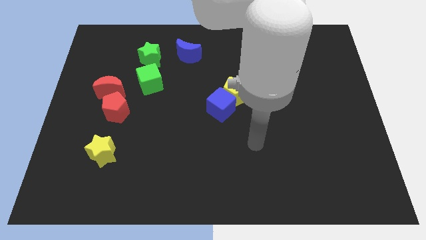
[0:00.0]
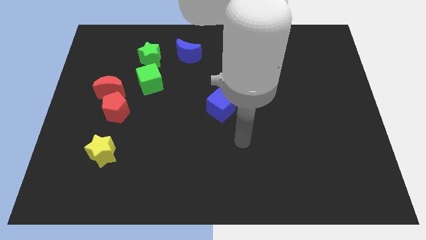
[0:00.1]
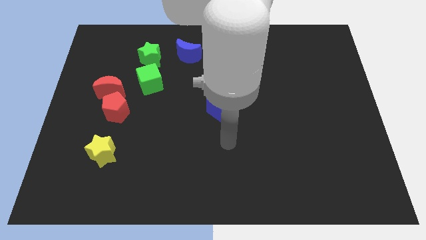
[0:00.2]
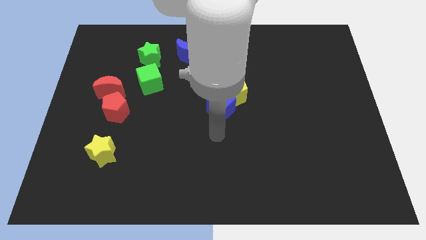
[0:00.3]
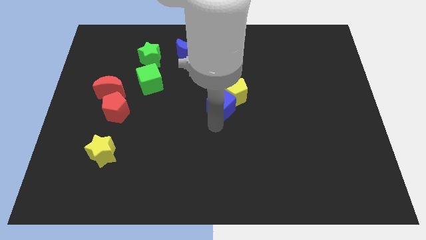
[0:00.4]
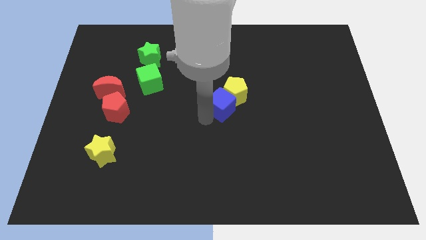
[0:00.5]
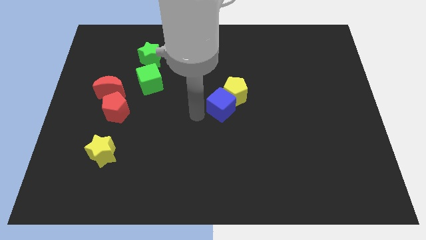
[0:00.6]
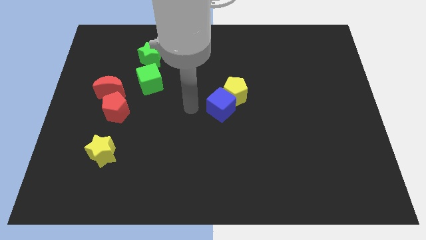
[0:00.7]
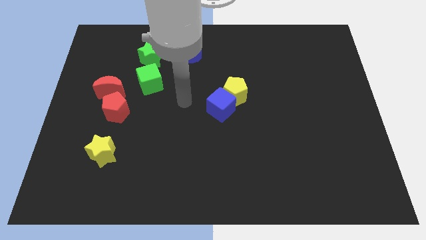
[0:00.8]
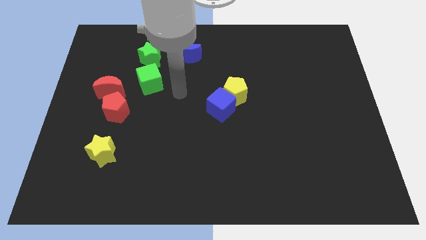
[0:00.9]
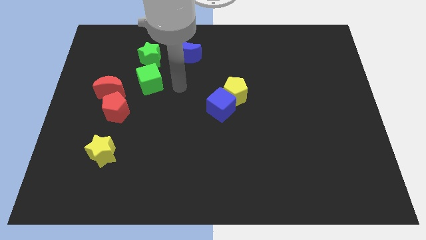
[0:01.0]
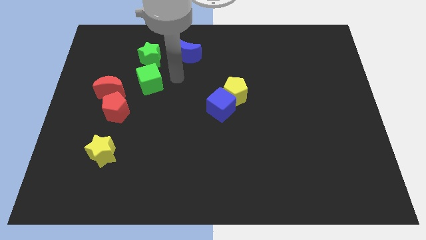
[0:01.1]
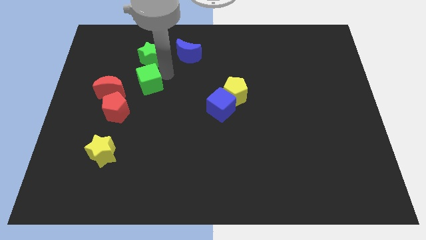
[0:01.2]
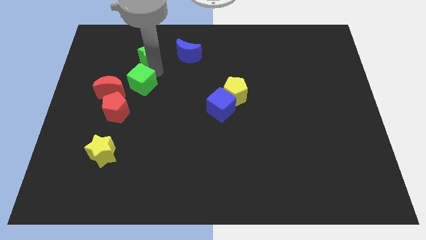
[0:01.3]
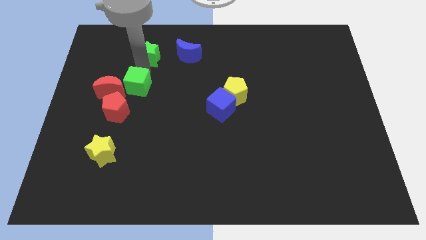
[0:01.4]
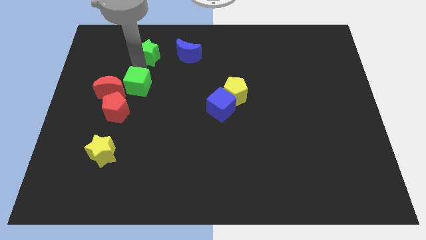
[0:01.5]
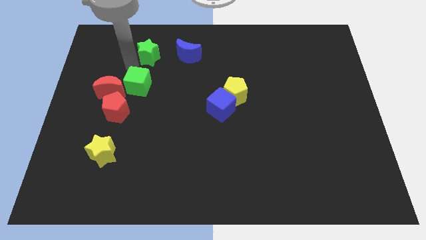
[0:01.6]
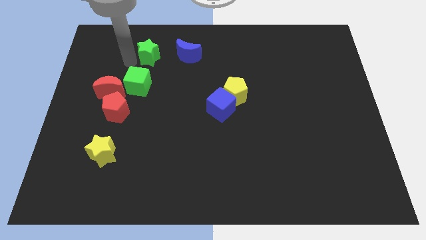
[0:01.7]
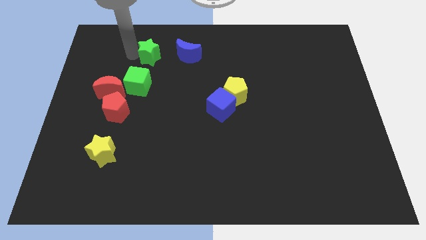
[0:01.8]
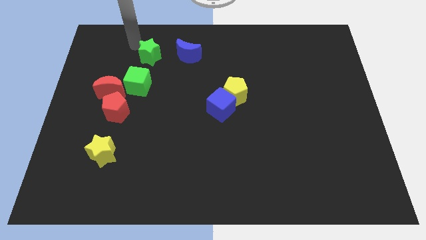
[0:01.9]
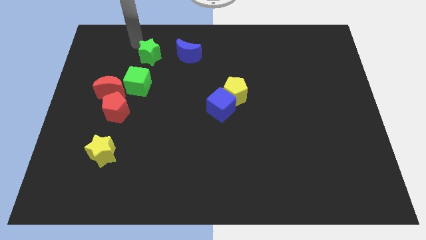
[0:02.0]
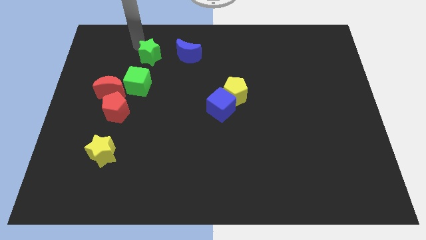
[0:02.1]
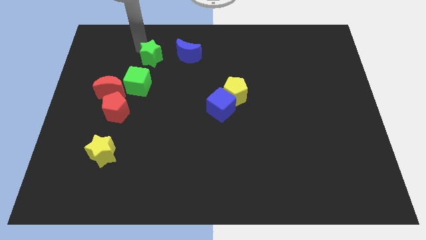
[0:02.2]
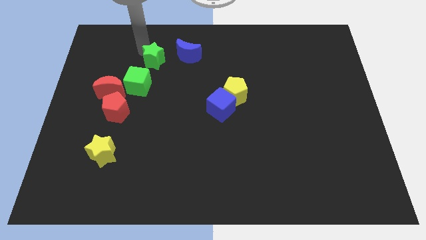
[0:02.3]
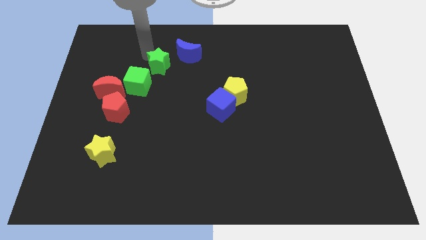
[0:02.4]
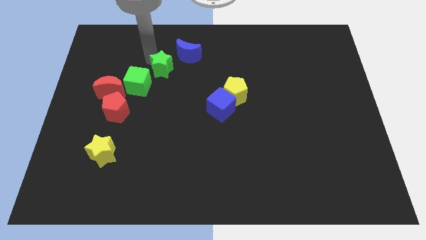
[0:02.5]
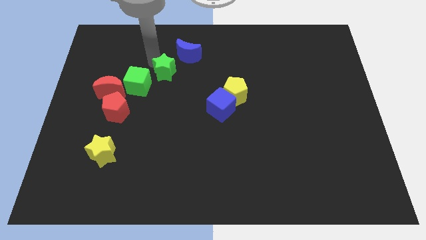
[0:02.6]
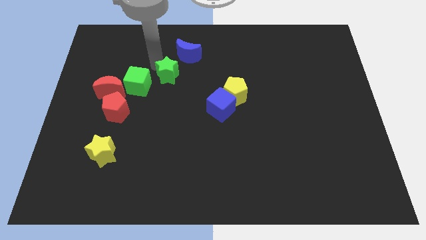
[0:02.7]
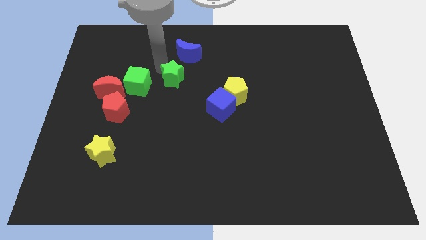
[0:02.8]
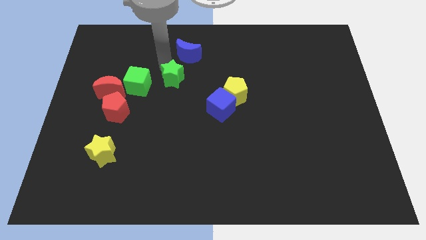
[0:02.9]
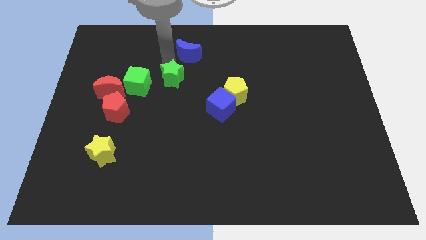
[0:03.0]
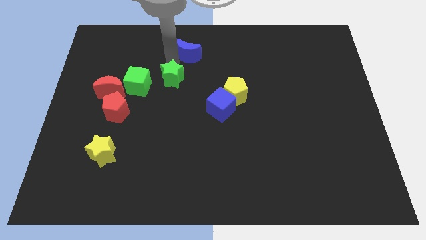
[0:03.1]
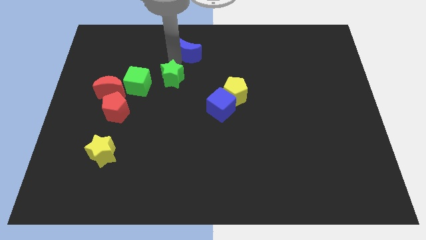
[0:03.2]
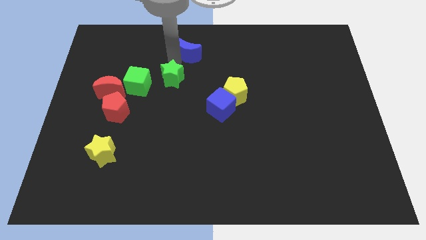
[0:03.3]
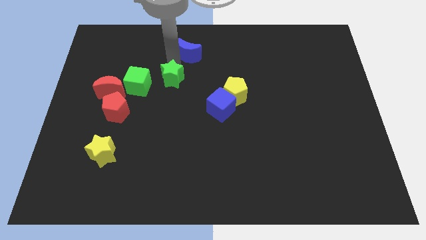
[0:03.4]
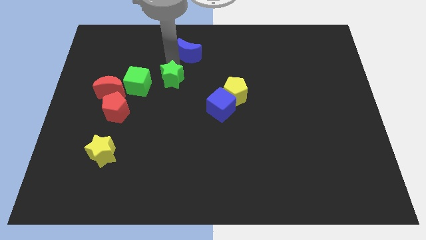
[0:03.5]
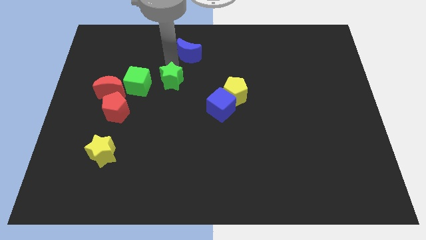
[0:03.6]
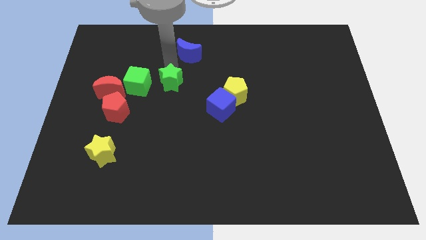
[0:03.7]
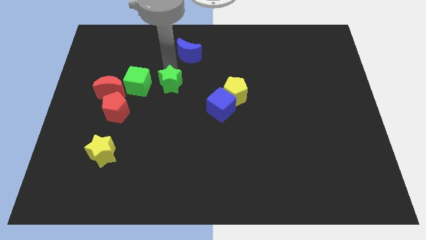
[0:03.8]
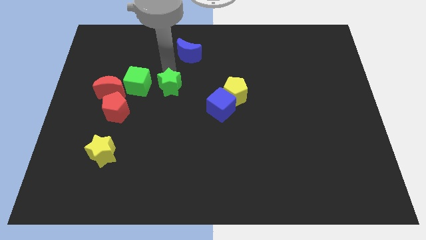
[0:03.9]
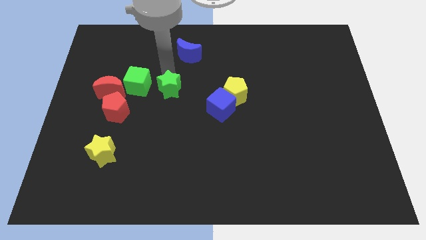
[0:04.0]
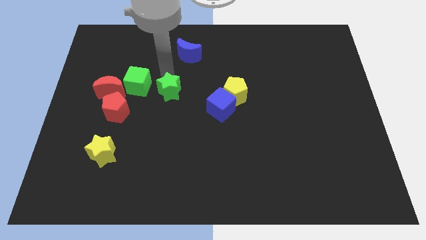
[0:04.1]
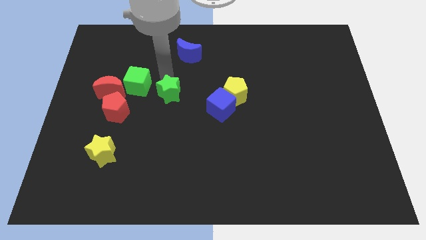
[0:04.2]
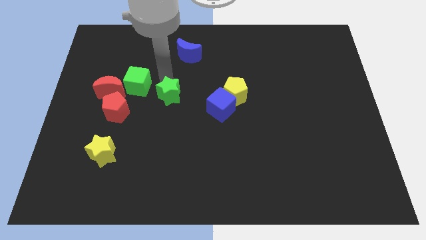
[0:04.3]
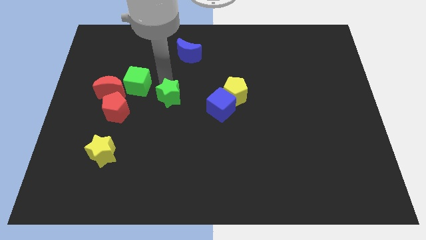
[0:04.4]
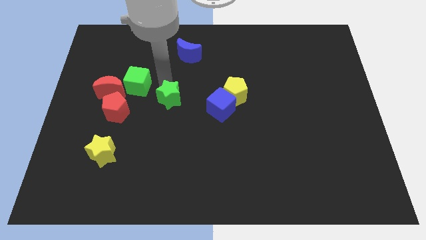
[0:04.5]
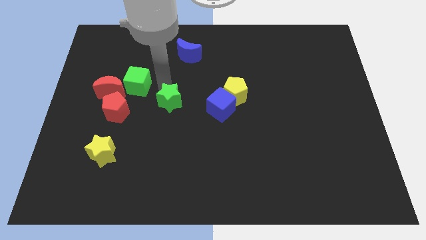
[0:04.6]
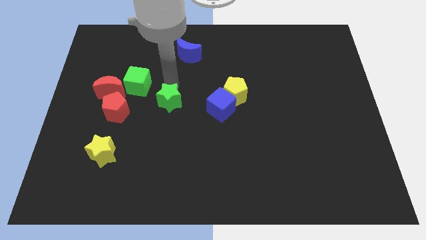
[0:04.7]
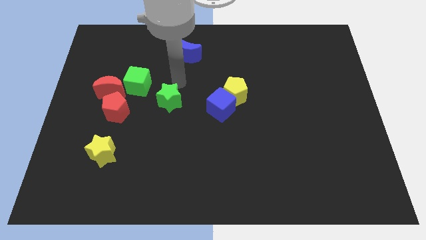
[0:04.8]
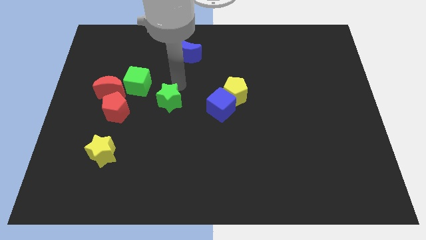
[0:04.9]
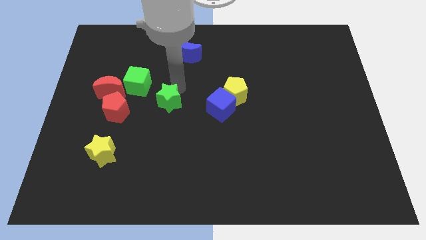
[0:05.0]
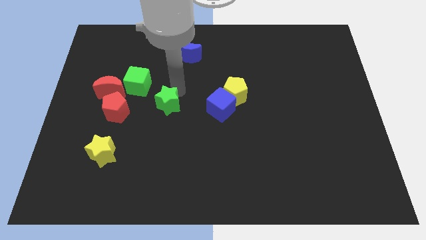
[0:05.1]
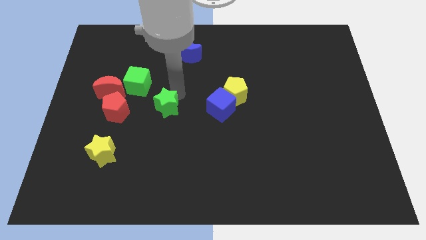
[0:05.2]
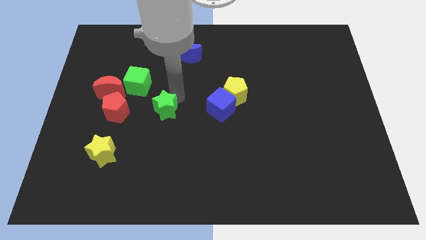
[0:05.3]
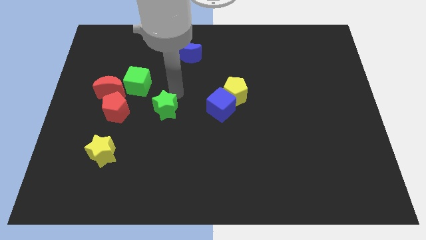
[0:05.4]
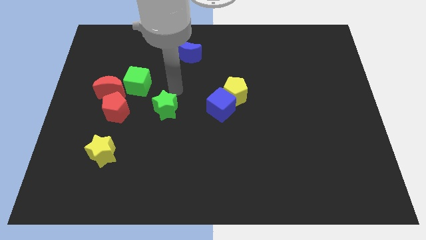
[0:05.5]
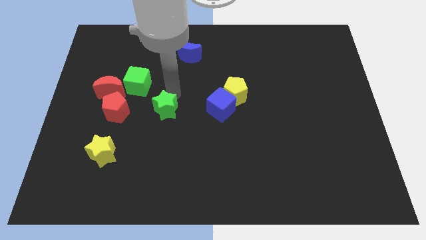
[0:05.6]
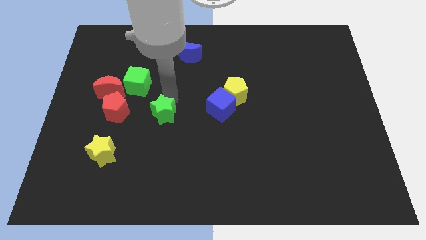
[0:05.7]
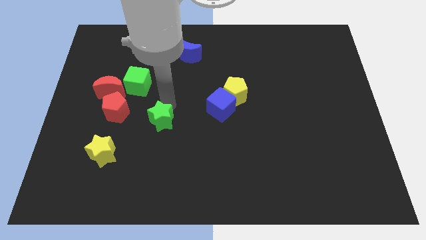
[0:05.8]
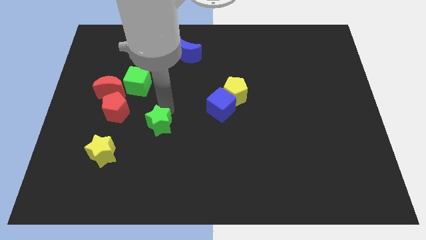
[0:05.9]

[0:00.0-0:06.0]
slide the green star downwards

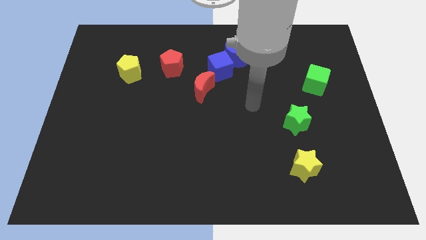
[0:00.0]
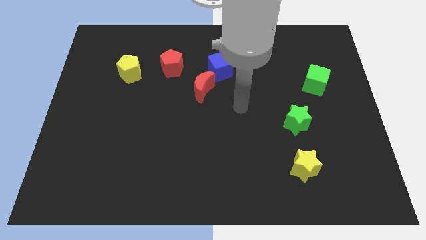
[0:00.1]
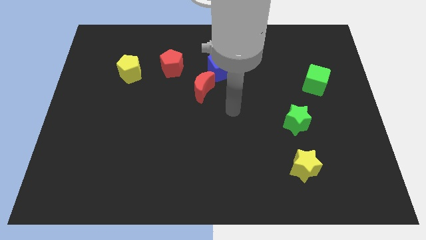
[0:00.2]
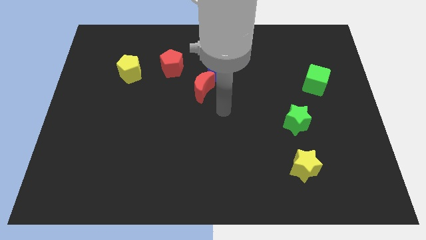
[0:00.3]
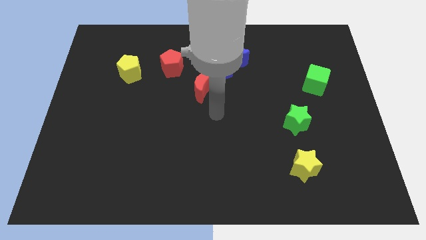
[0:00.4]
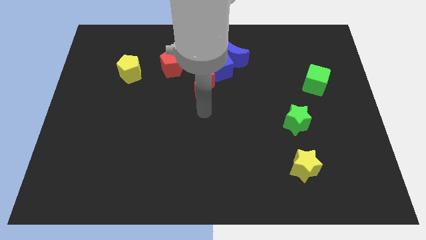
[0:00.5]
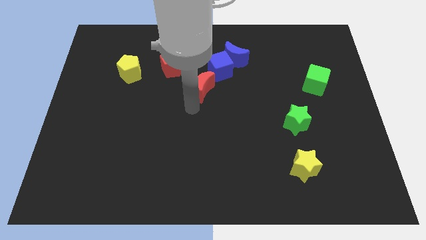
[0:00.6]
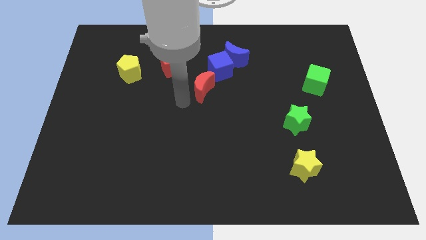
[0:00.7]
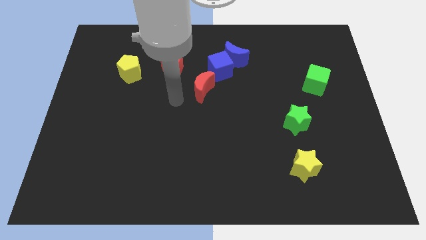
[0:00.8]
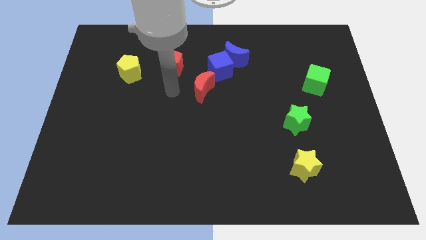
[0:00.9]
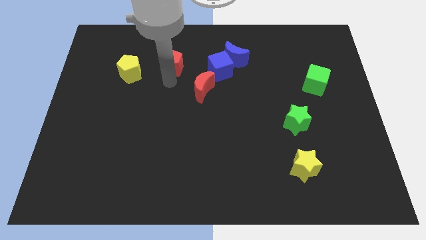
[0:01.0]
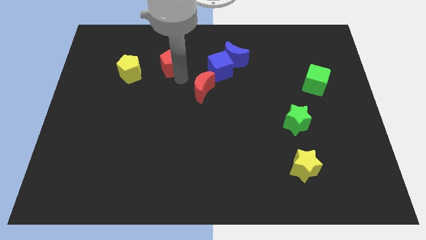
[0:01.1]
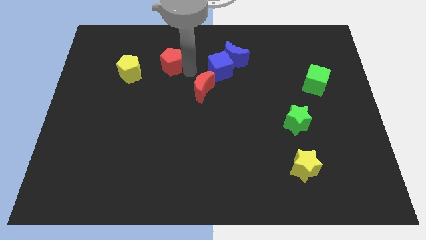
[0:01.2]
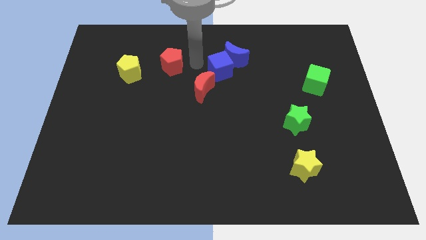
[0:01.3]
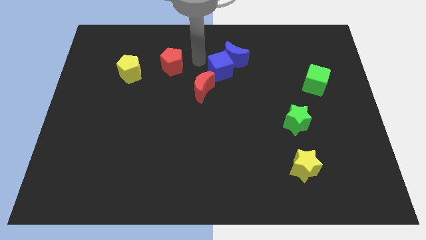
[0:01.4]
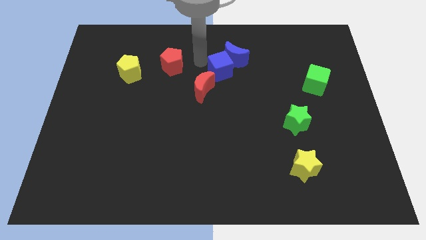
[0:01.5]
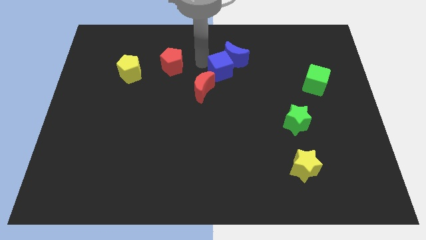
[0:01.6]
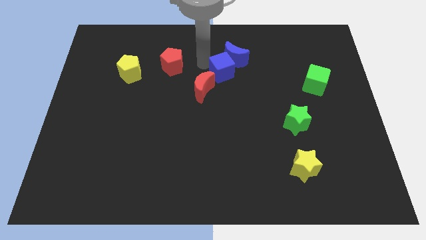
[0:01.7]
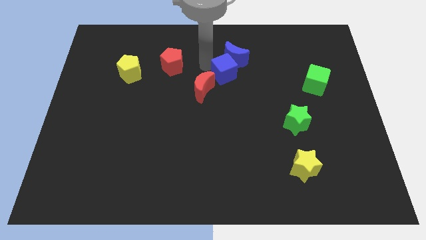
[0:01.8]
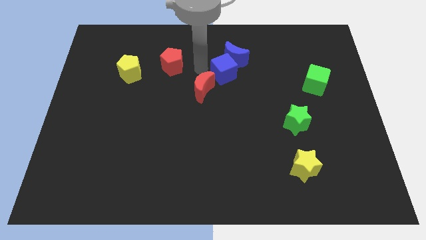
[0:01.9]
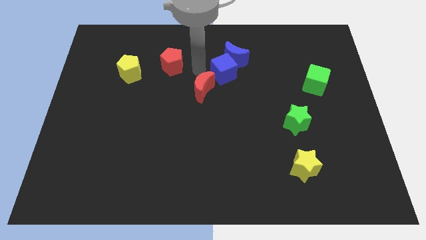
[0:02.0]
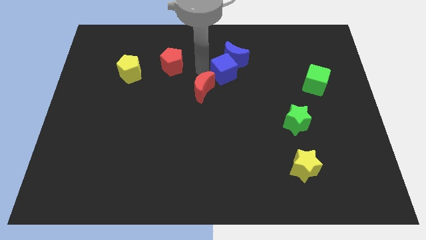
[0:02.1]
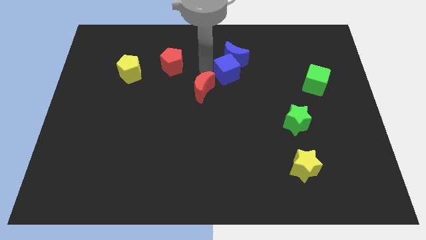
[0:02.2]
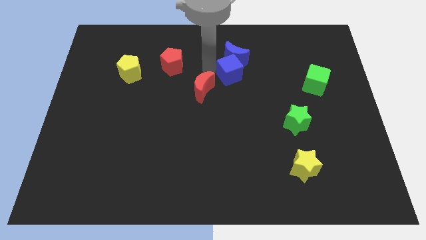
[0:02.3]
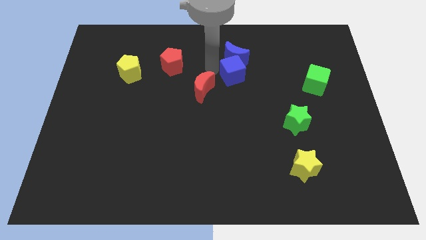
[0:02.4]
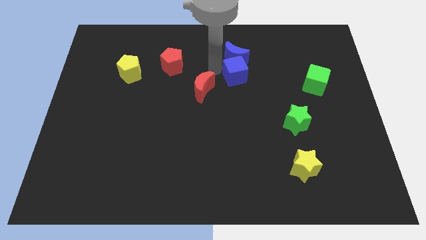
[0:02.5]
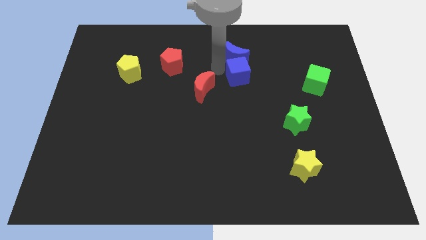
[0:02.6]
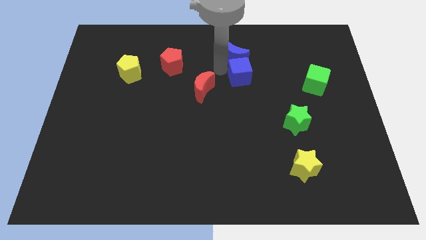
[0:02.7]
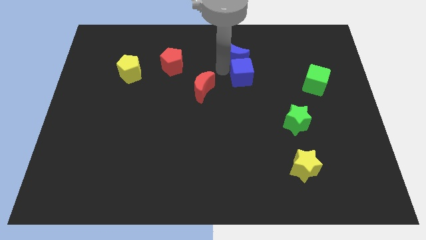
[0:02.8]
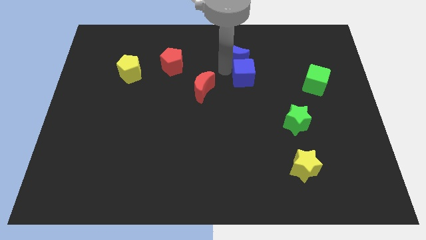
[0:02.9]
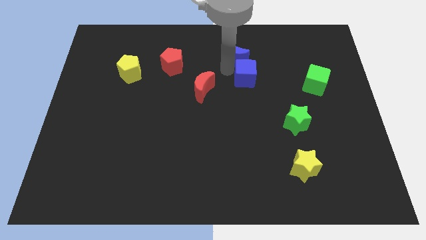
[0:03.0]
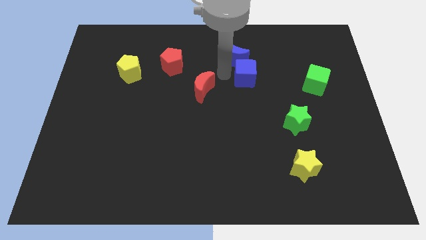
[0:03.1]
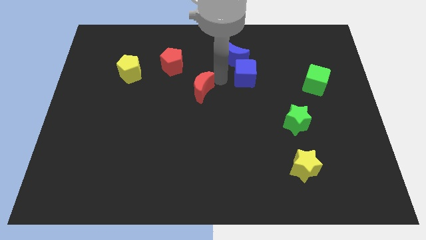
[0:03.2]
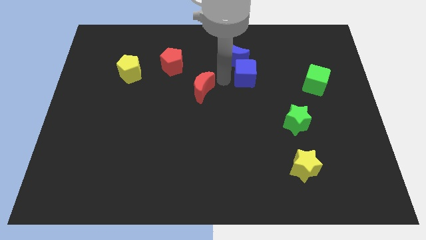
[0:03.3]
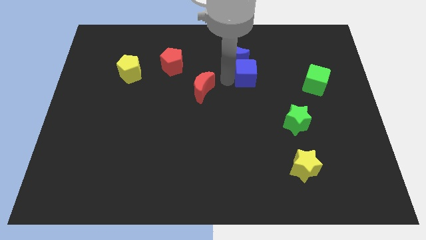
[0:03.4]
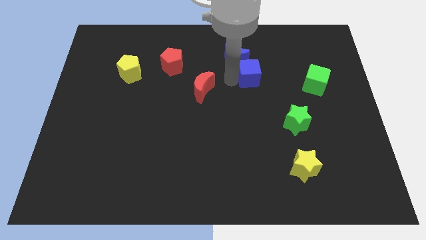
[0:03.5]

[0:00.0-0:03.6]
slightly push the blue cube to the right
